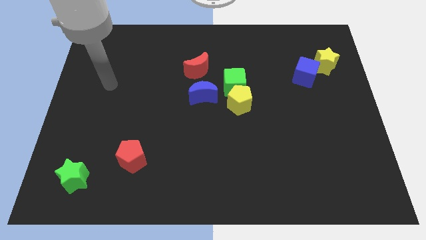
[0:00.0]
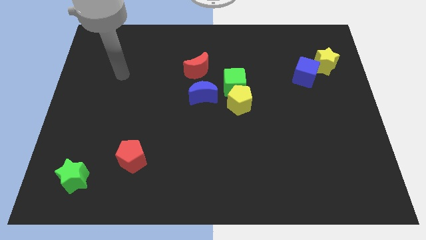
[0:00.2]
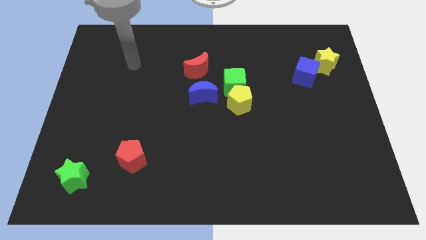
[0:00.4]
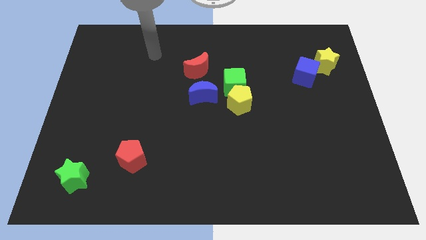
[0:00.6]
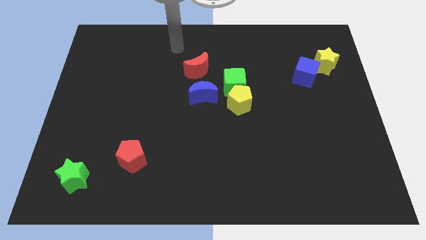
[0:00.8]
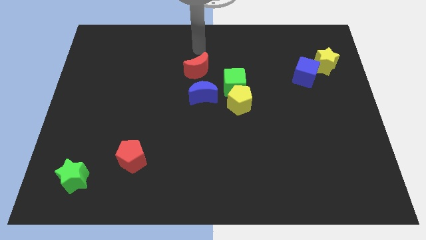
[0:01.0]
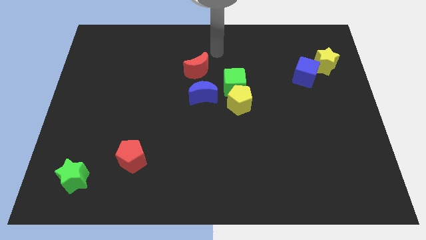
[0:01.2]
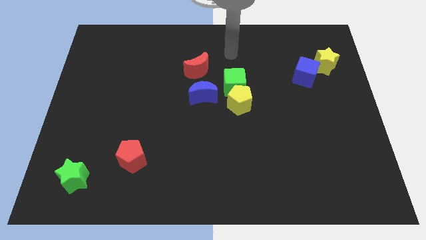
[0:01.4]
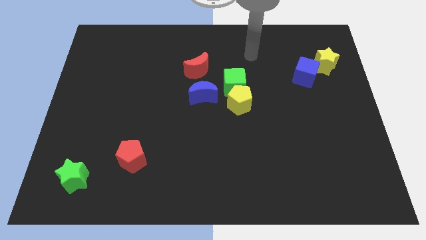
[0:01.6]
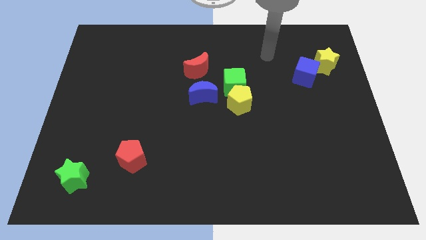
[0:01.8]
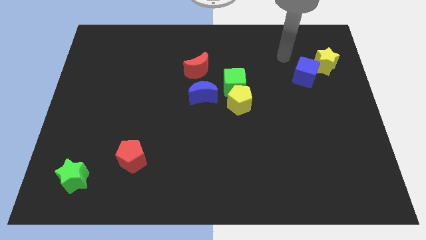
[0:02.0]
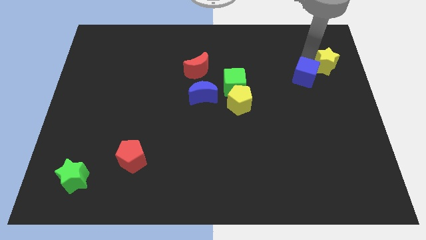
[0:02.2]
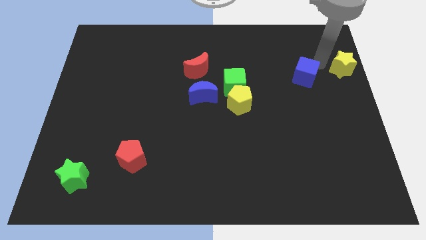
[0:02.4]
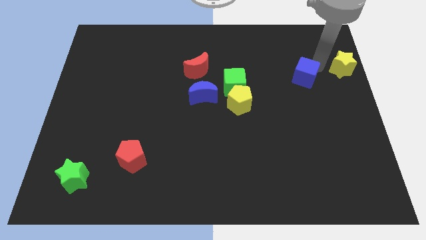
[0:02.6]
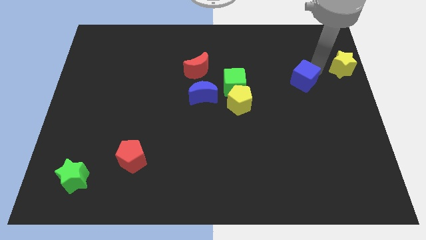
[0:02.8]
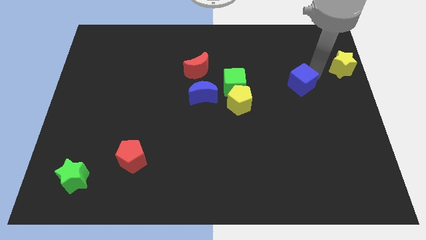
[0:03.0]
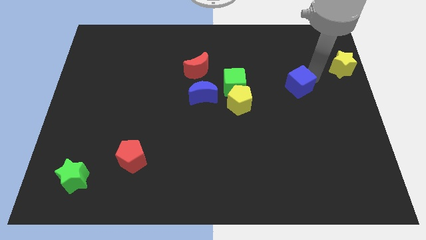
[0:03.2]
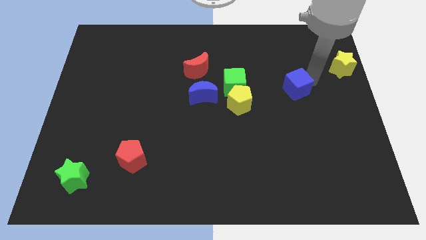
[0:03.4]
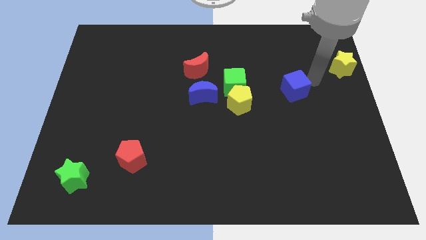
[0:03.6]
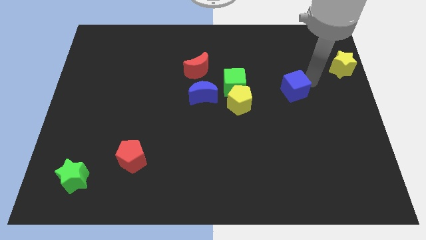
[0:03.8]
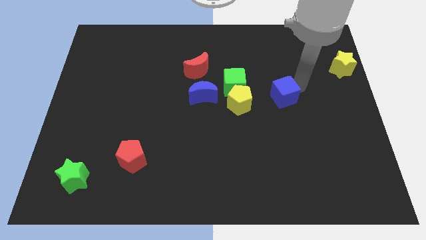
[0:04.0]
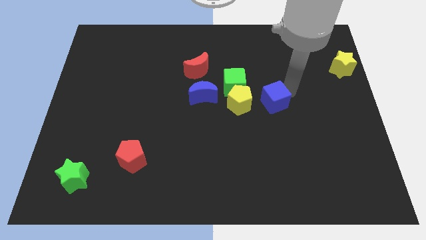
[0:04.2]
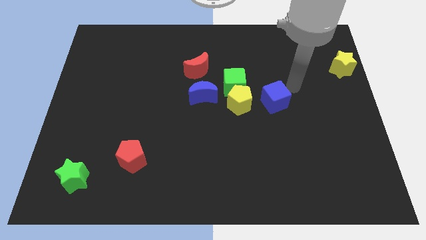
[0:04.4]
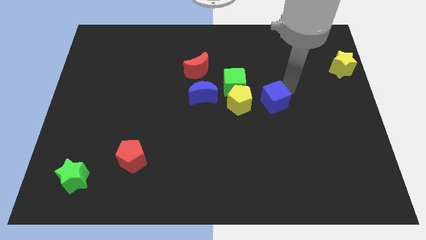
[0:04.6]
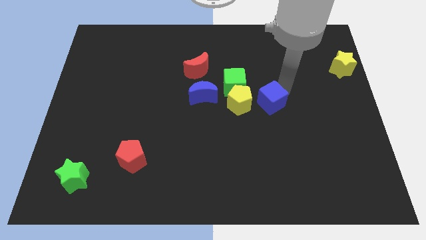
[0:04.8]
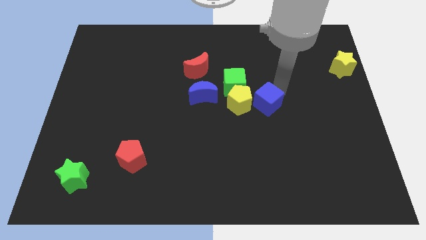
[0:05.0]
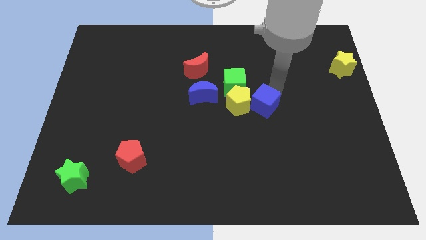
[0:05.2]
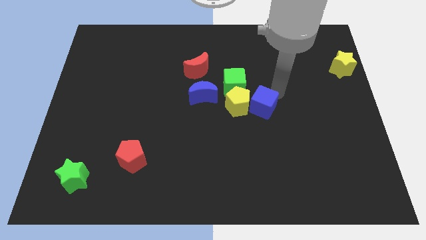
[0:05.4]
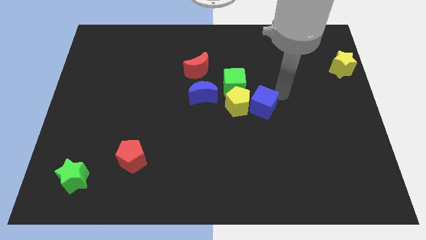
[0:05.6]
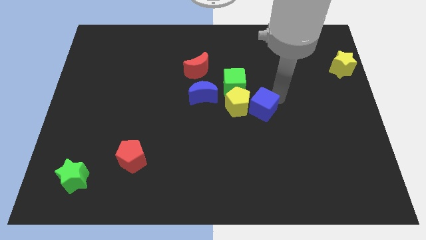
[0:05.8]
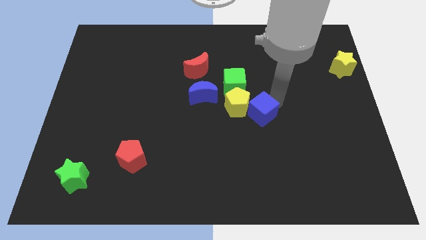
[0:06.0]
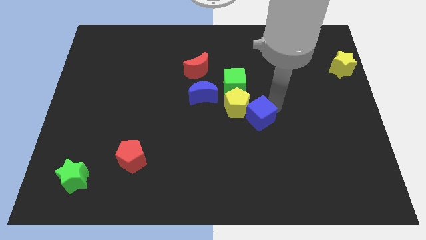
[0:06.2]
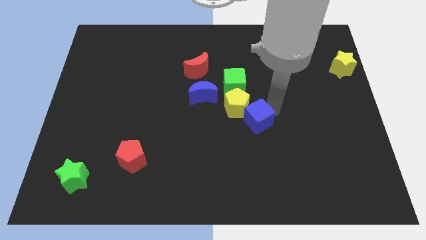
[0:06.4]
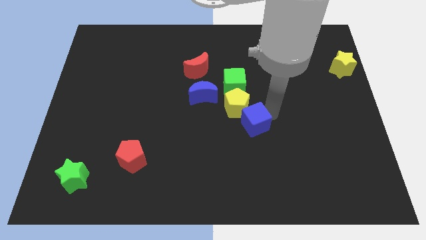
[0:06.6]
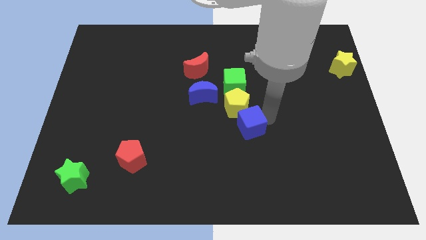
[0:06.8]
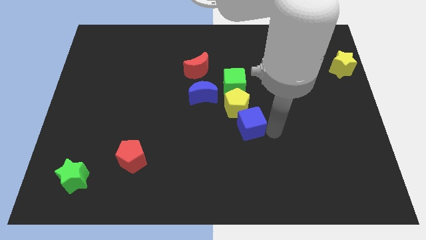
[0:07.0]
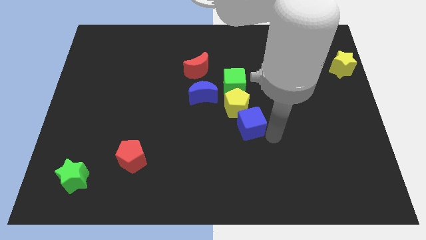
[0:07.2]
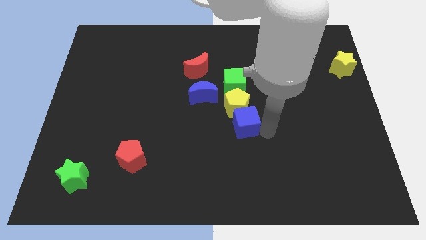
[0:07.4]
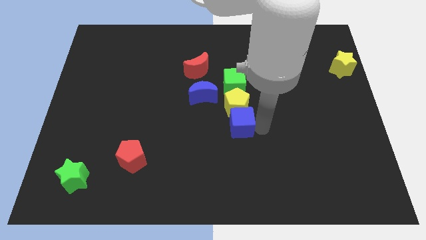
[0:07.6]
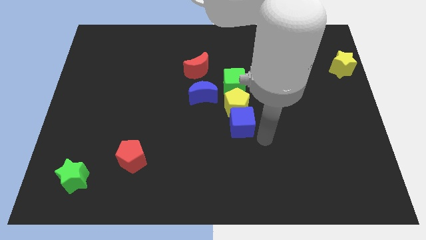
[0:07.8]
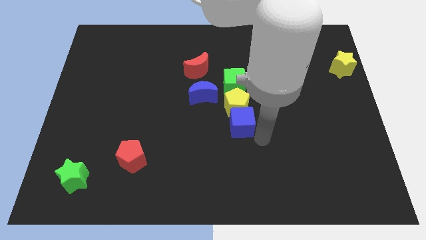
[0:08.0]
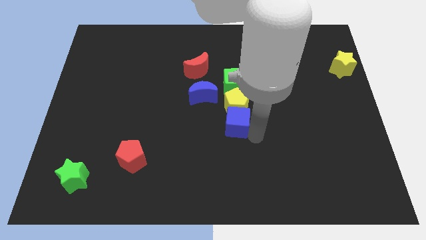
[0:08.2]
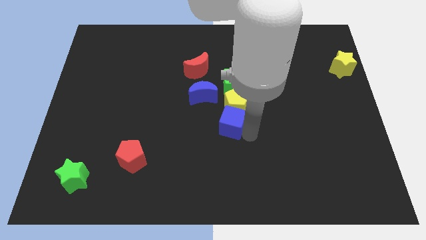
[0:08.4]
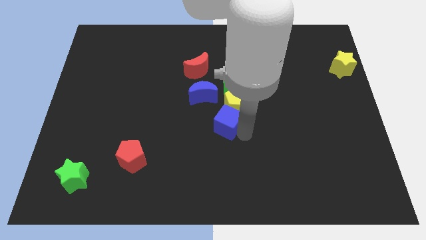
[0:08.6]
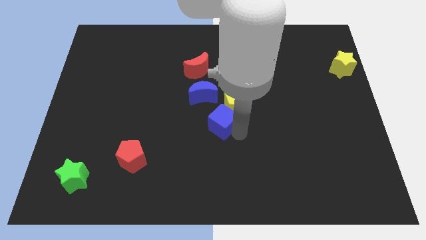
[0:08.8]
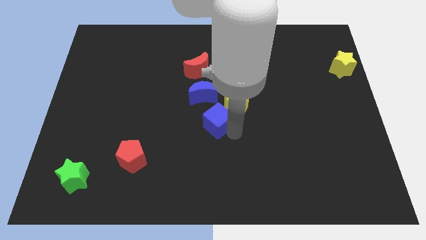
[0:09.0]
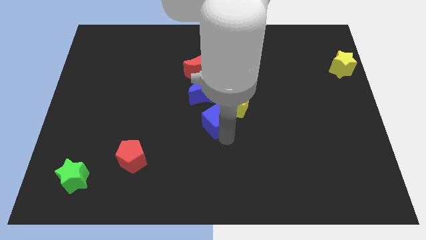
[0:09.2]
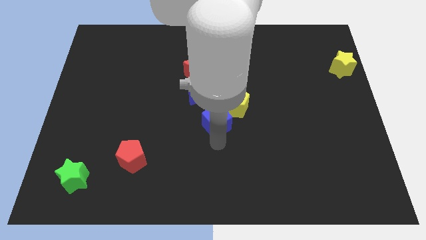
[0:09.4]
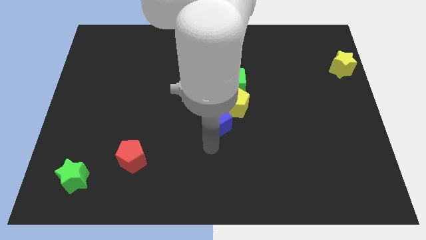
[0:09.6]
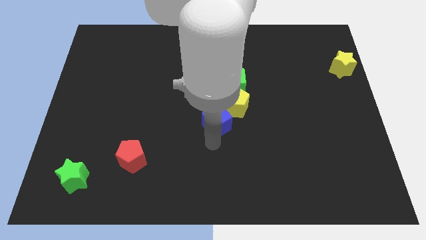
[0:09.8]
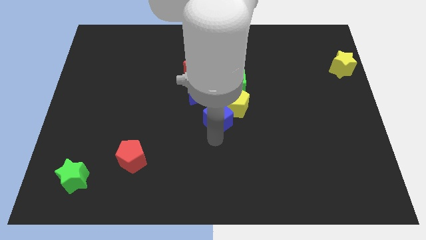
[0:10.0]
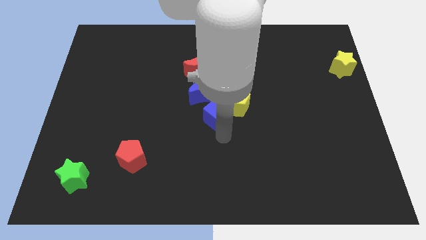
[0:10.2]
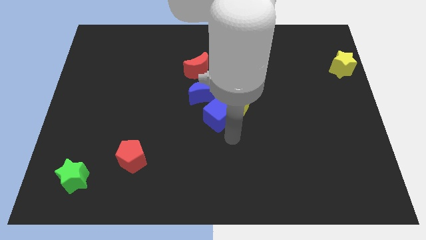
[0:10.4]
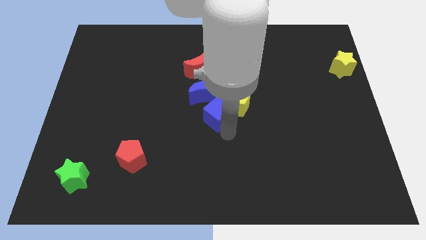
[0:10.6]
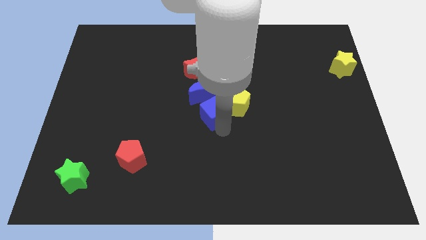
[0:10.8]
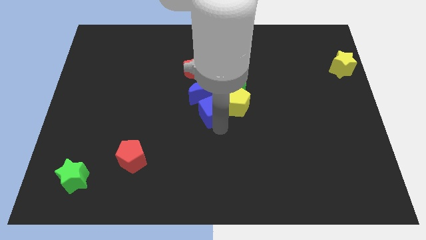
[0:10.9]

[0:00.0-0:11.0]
move the blue cube next to the blue moon

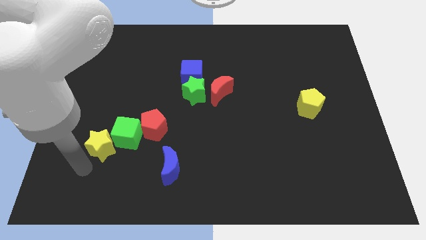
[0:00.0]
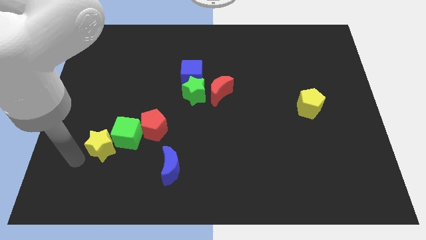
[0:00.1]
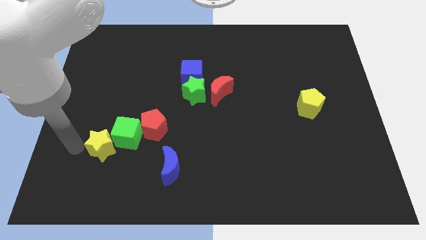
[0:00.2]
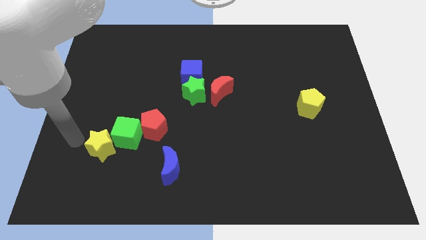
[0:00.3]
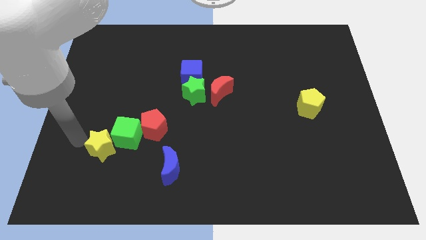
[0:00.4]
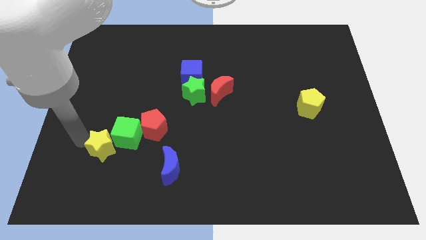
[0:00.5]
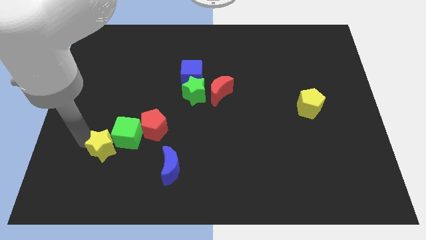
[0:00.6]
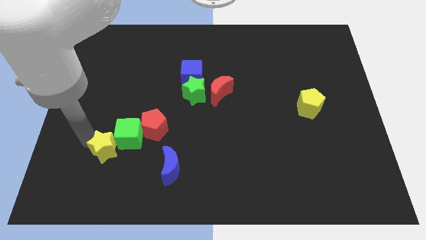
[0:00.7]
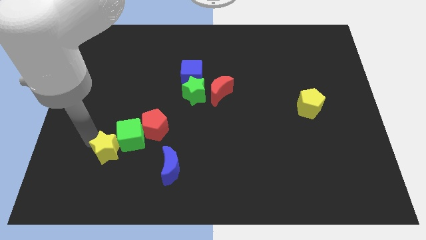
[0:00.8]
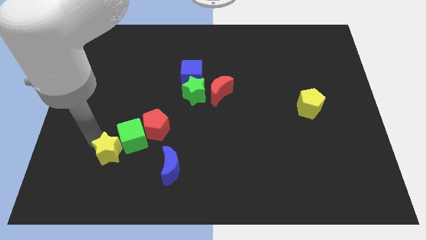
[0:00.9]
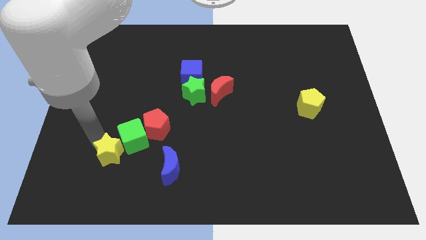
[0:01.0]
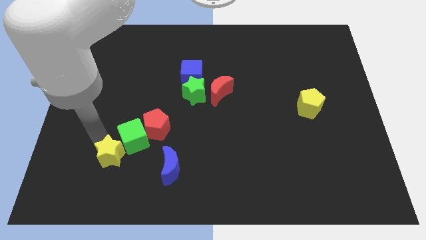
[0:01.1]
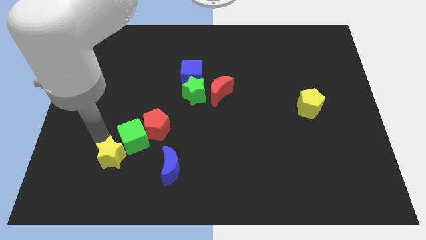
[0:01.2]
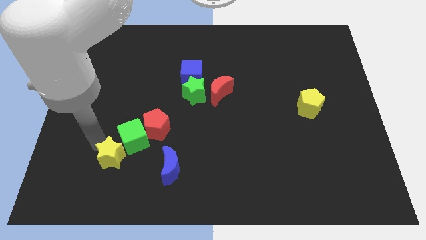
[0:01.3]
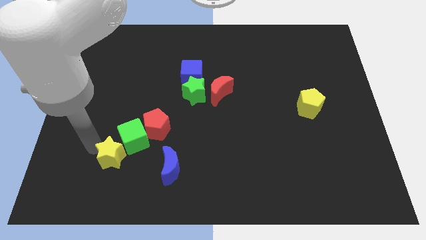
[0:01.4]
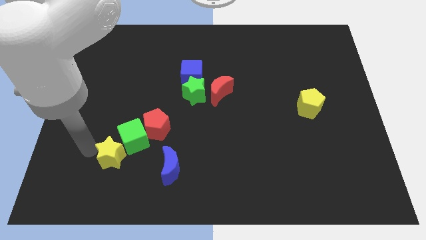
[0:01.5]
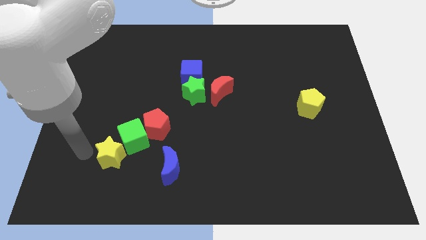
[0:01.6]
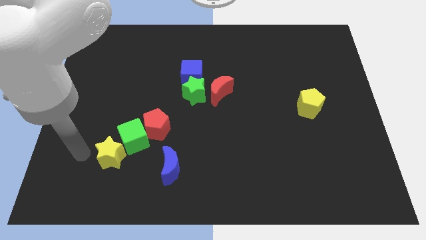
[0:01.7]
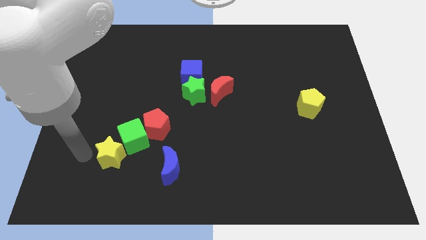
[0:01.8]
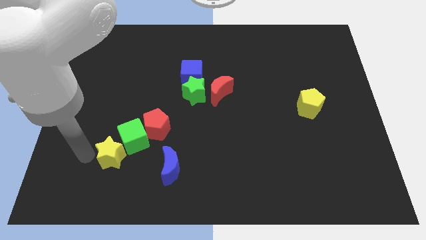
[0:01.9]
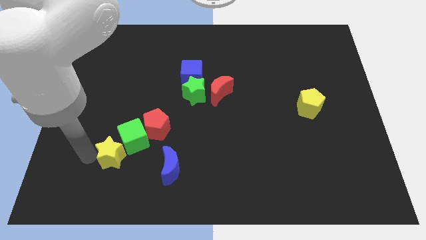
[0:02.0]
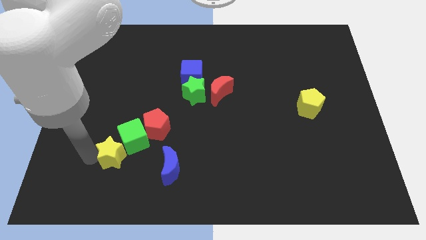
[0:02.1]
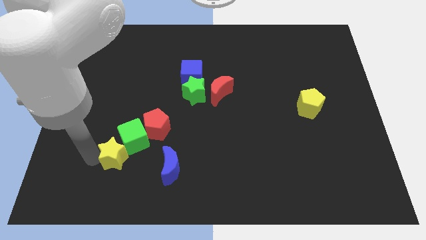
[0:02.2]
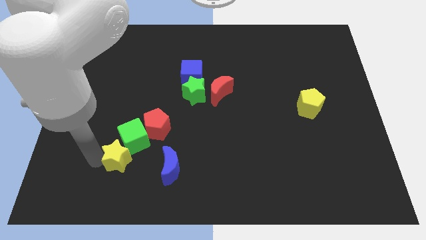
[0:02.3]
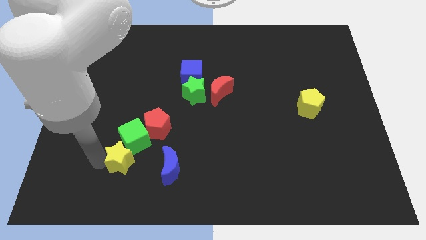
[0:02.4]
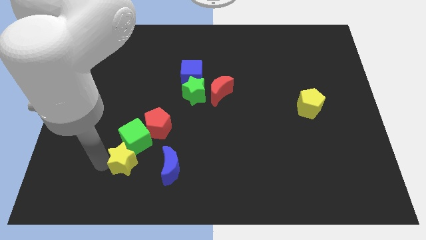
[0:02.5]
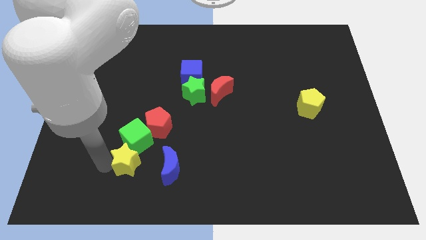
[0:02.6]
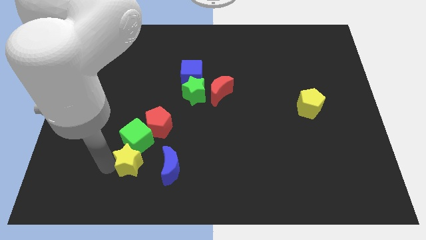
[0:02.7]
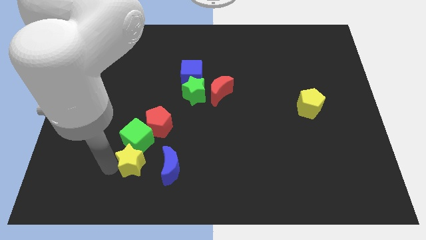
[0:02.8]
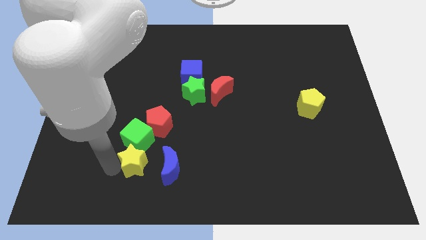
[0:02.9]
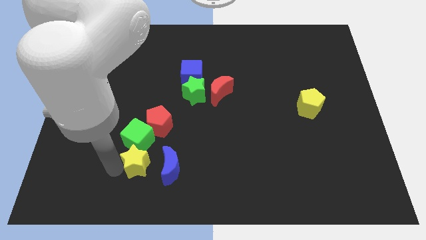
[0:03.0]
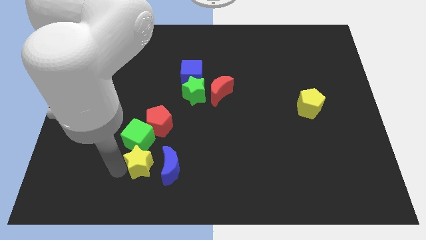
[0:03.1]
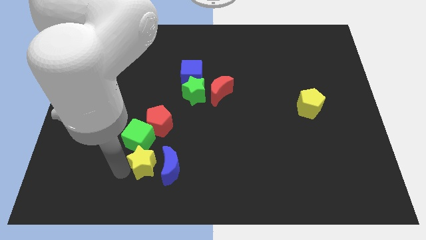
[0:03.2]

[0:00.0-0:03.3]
slide the yellow star towards the blue moon
